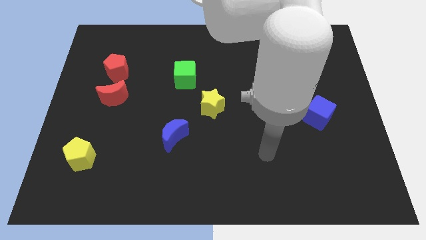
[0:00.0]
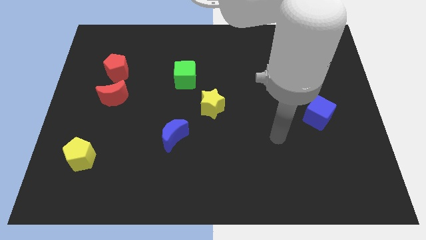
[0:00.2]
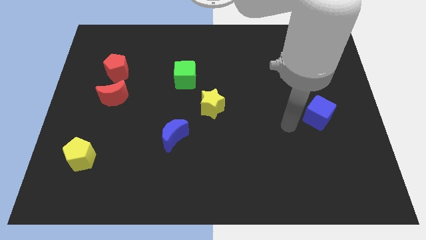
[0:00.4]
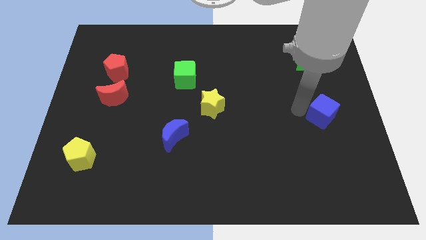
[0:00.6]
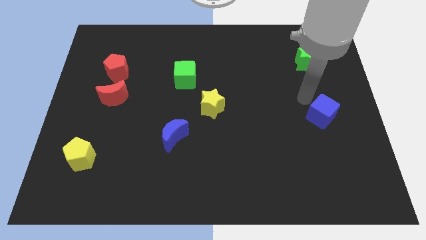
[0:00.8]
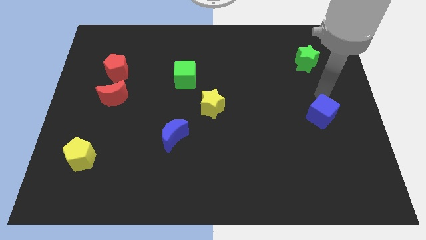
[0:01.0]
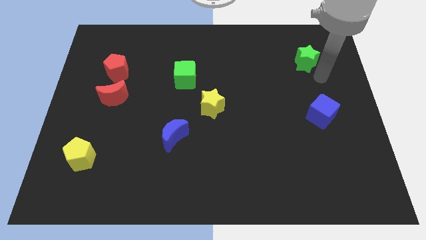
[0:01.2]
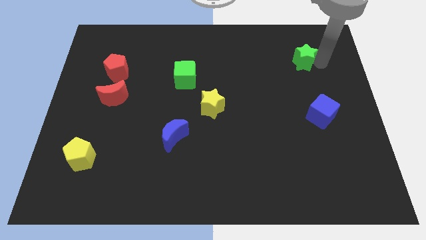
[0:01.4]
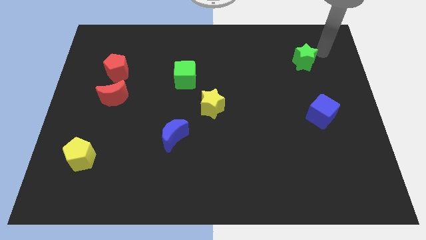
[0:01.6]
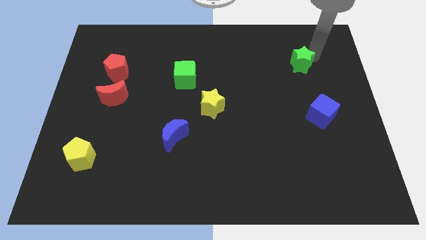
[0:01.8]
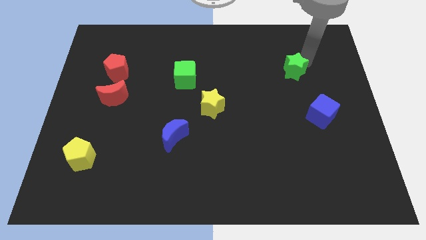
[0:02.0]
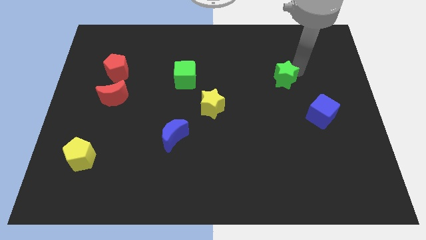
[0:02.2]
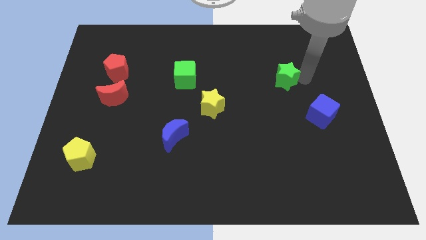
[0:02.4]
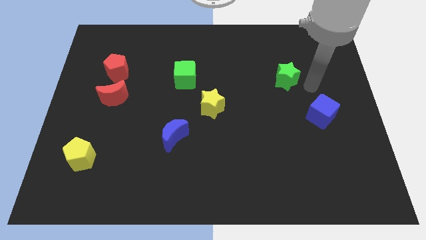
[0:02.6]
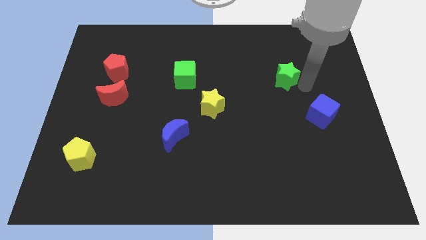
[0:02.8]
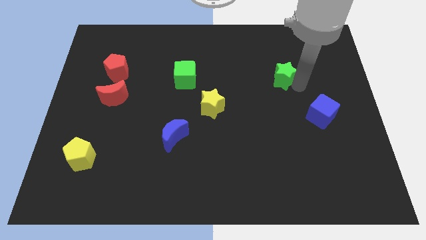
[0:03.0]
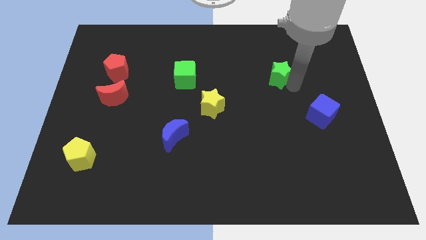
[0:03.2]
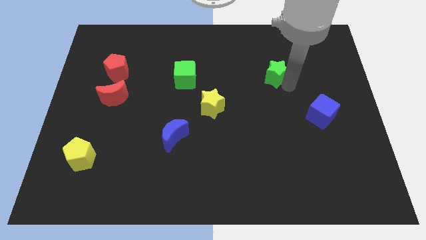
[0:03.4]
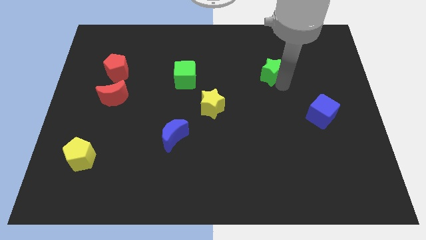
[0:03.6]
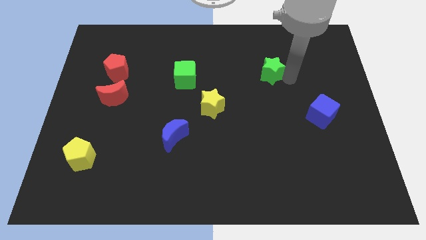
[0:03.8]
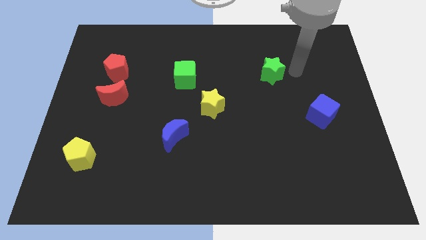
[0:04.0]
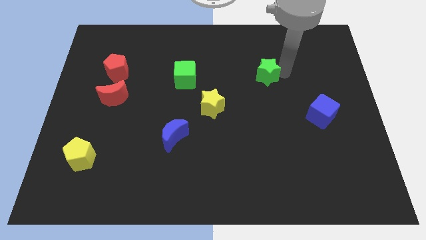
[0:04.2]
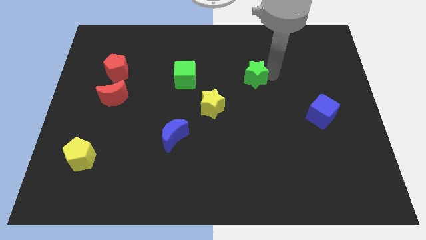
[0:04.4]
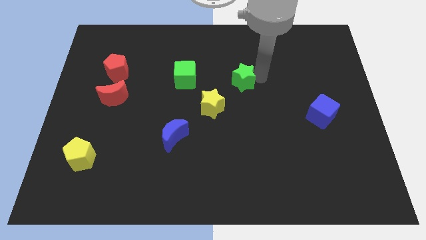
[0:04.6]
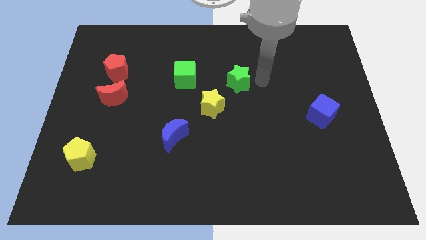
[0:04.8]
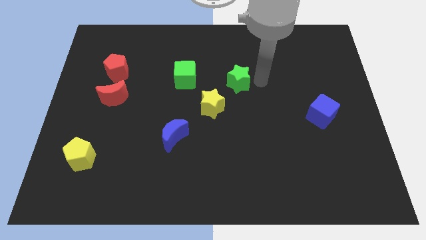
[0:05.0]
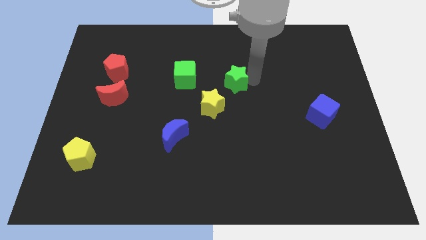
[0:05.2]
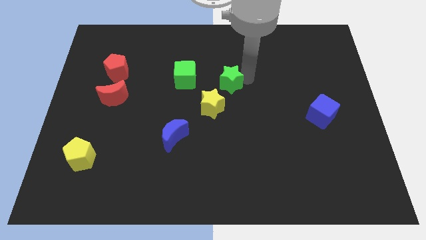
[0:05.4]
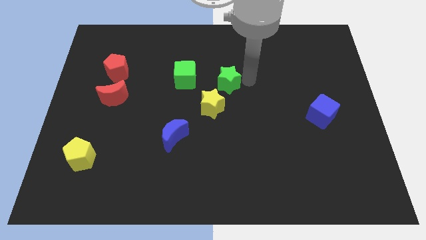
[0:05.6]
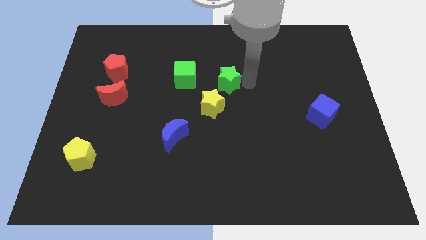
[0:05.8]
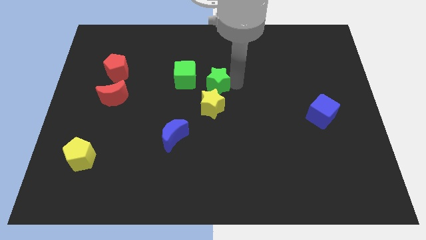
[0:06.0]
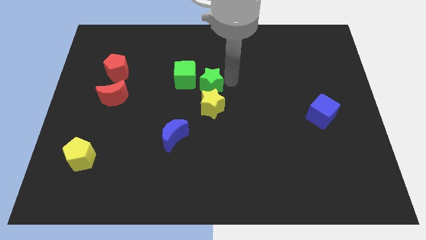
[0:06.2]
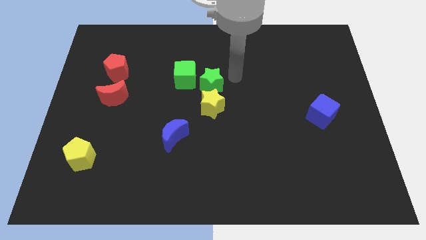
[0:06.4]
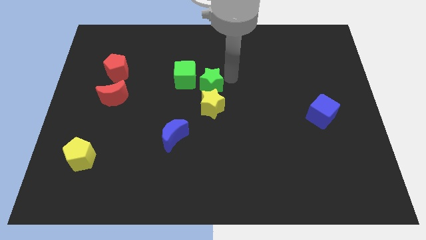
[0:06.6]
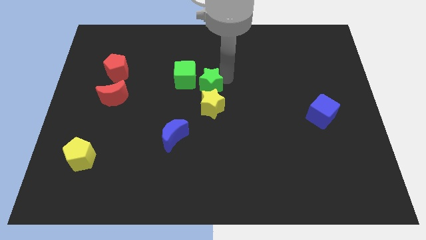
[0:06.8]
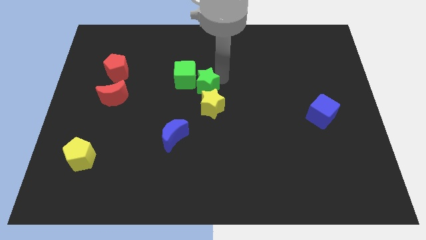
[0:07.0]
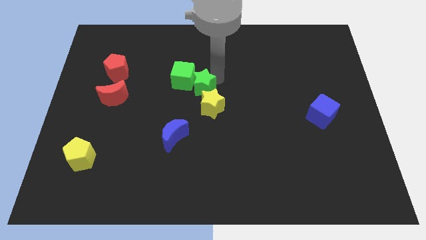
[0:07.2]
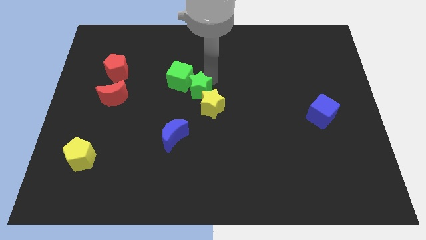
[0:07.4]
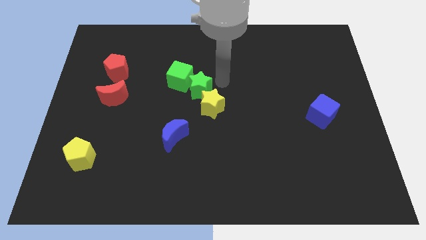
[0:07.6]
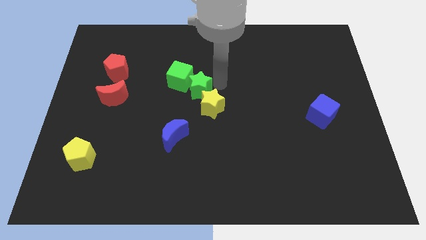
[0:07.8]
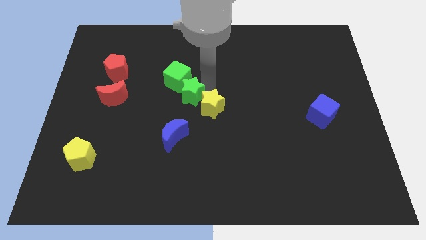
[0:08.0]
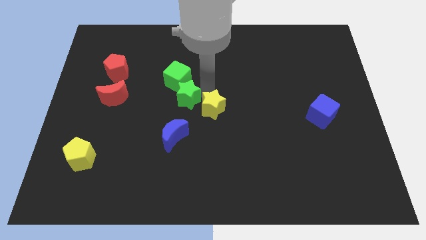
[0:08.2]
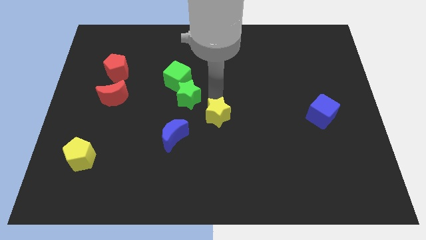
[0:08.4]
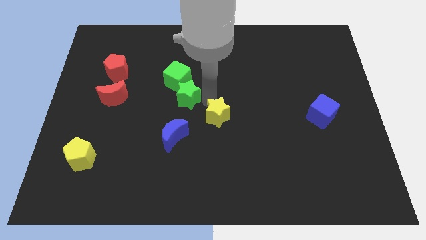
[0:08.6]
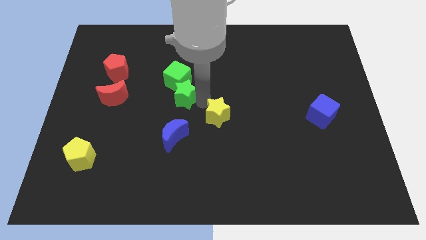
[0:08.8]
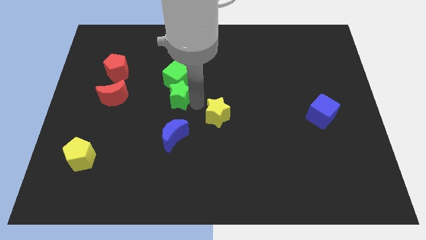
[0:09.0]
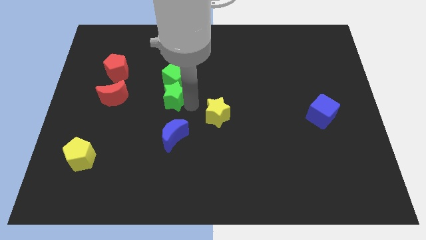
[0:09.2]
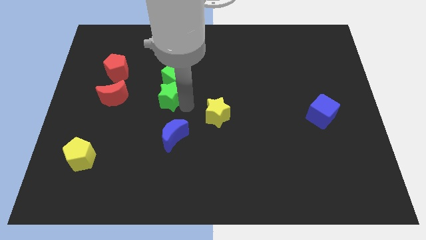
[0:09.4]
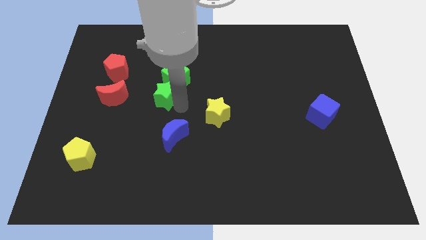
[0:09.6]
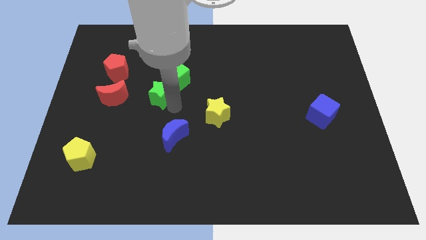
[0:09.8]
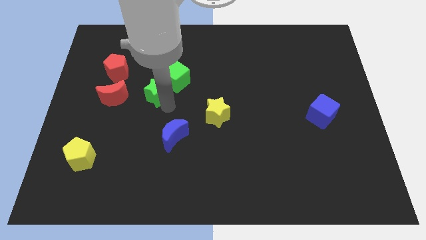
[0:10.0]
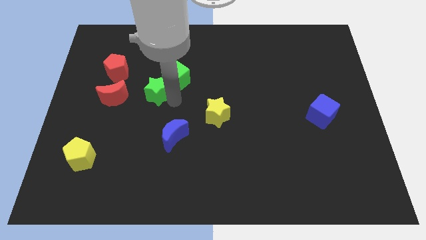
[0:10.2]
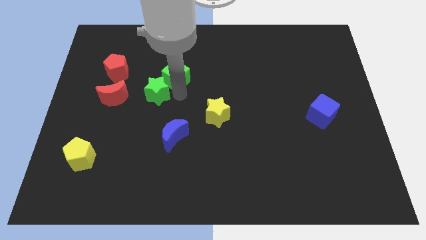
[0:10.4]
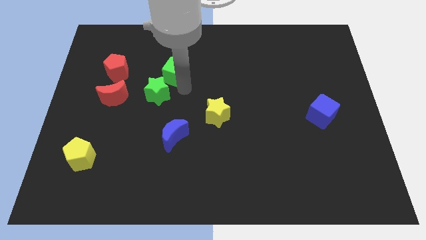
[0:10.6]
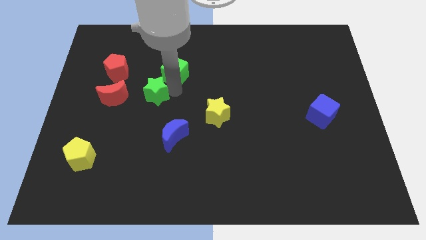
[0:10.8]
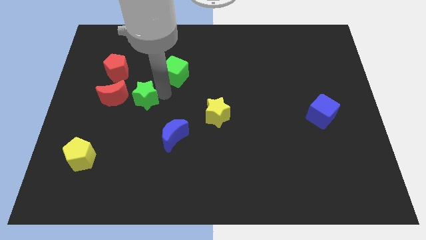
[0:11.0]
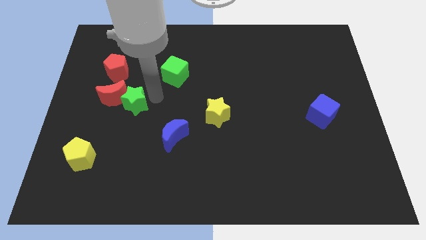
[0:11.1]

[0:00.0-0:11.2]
put the green star close to the red moon

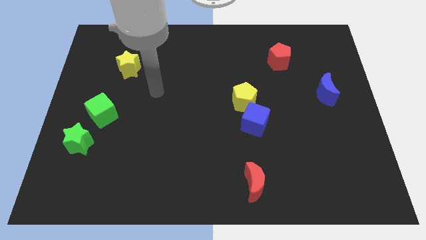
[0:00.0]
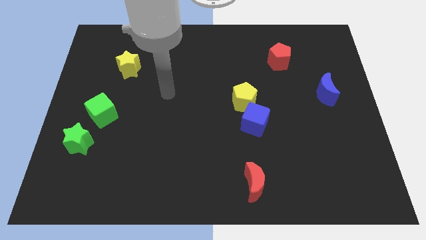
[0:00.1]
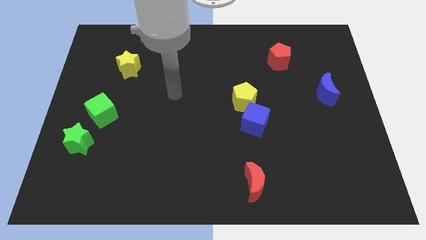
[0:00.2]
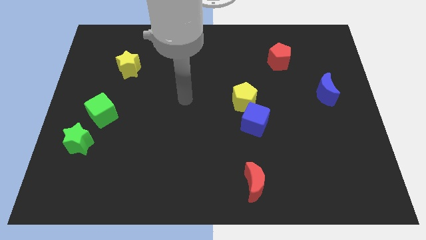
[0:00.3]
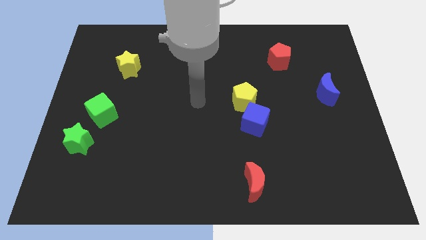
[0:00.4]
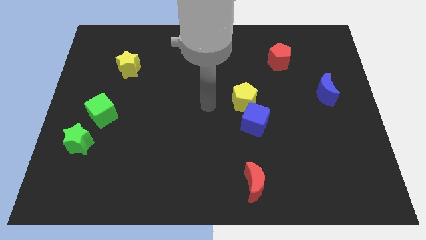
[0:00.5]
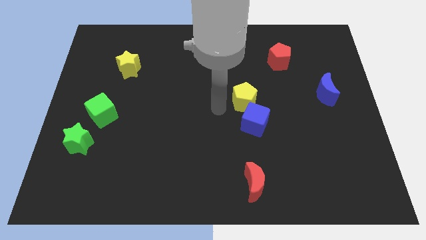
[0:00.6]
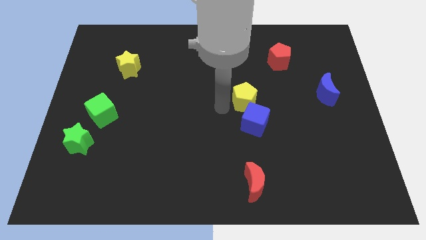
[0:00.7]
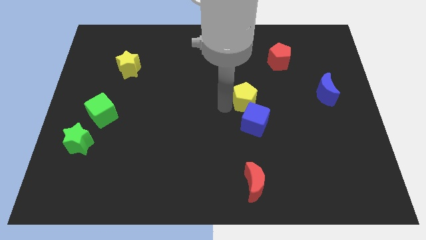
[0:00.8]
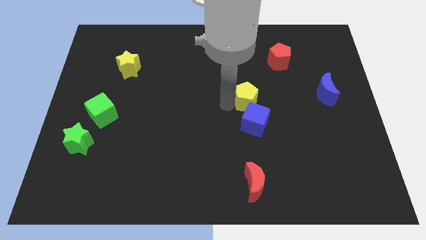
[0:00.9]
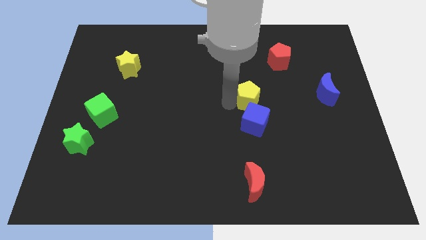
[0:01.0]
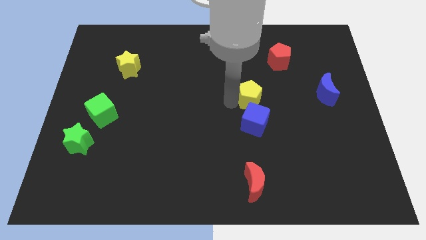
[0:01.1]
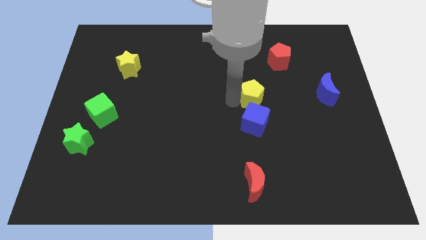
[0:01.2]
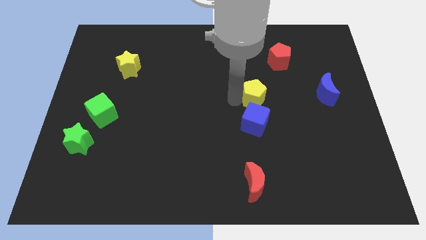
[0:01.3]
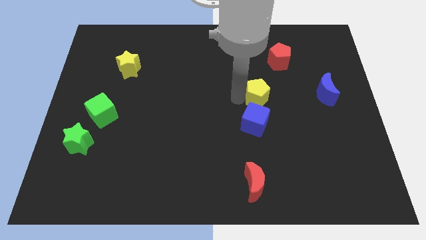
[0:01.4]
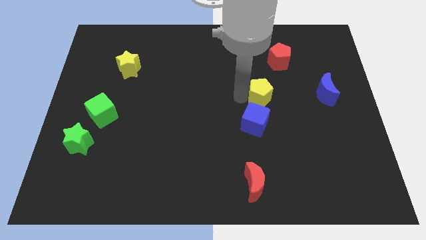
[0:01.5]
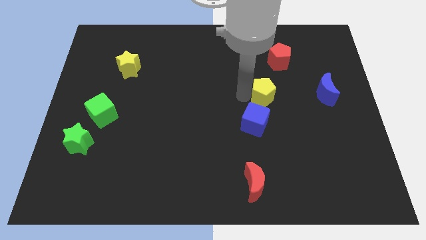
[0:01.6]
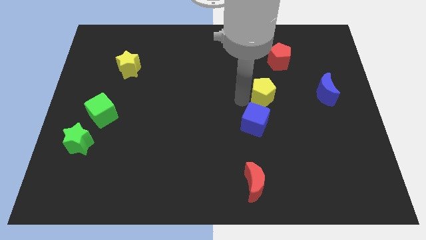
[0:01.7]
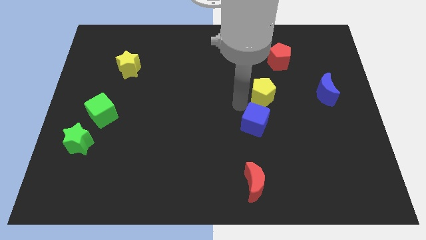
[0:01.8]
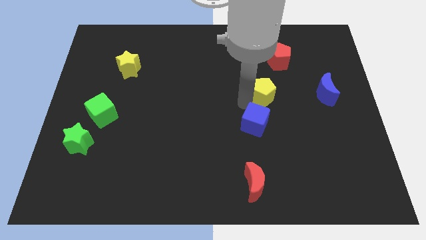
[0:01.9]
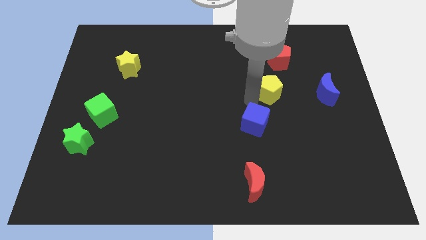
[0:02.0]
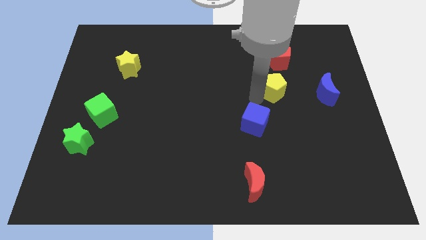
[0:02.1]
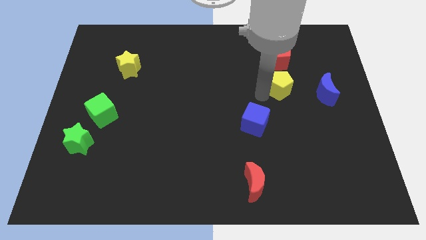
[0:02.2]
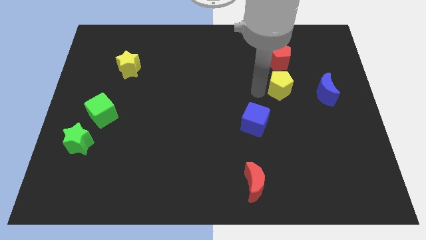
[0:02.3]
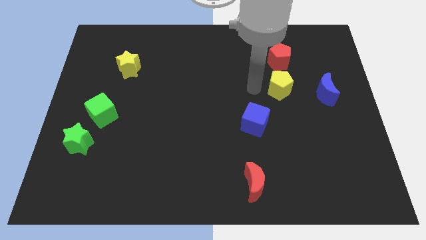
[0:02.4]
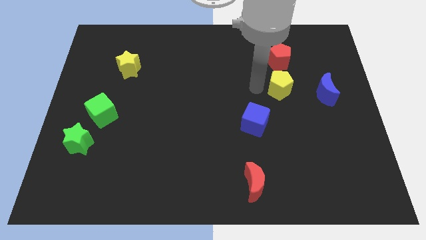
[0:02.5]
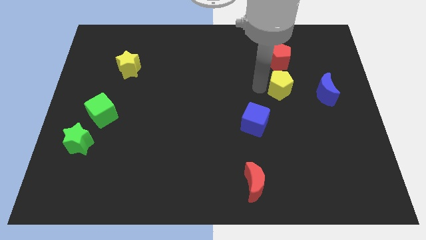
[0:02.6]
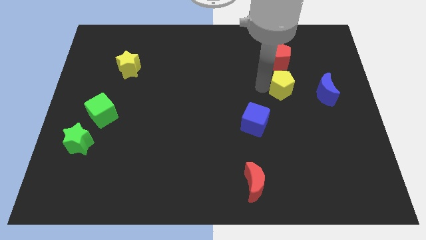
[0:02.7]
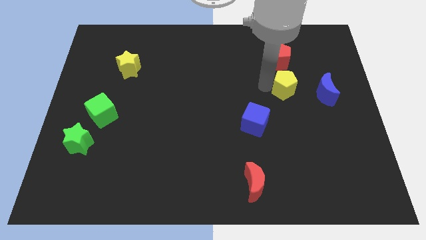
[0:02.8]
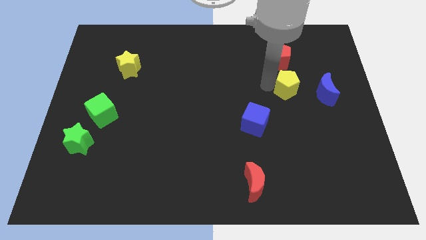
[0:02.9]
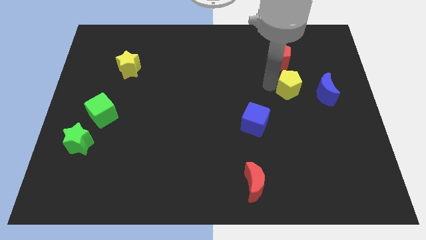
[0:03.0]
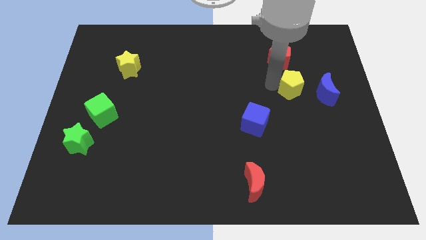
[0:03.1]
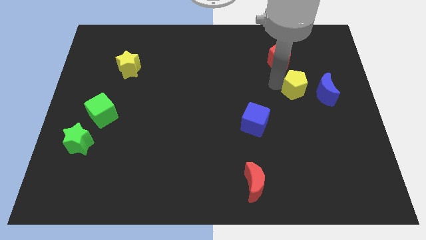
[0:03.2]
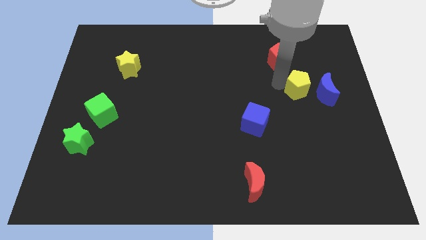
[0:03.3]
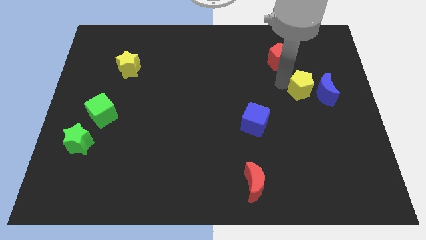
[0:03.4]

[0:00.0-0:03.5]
slide the yellow pentagon close to the blue moon
